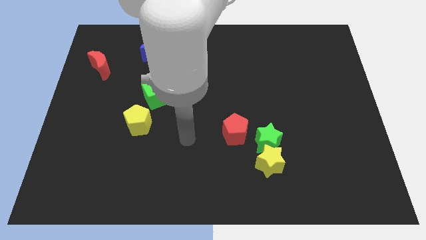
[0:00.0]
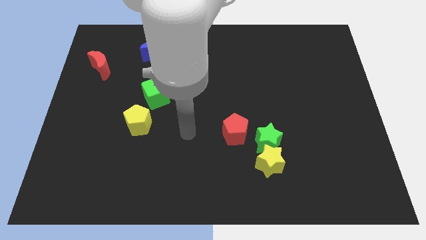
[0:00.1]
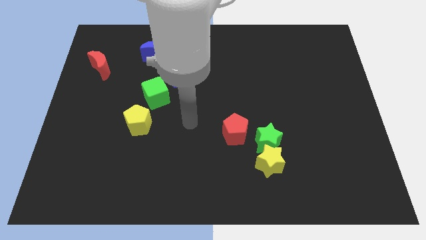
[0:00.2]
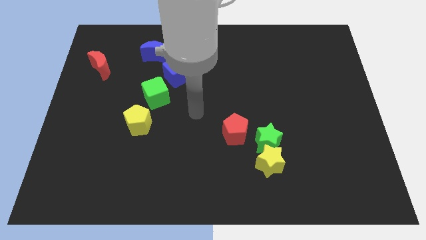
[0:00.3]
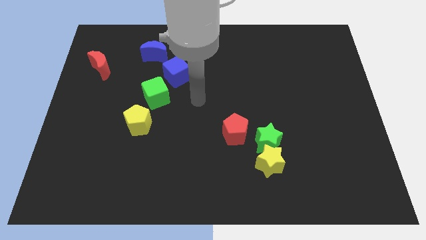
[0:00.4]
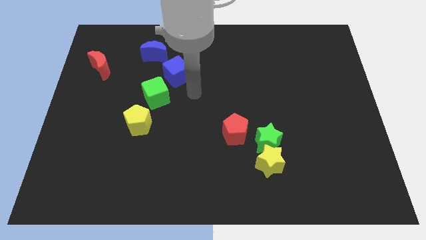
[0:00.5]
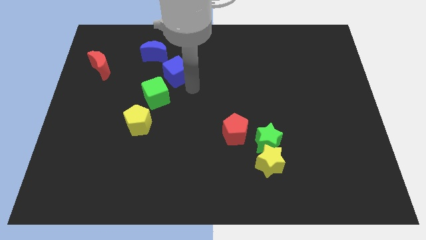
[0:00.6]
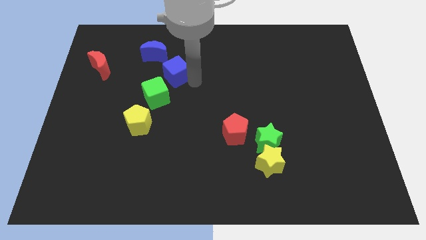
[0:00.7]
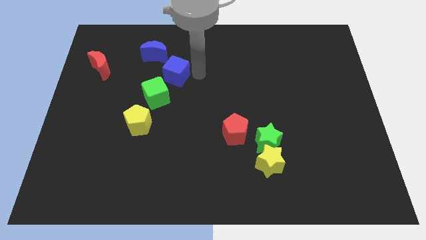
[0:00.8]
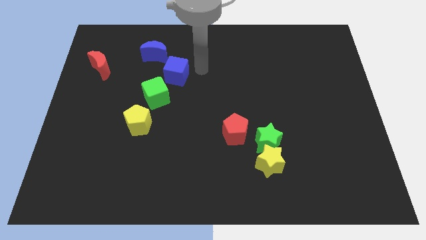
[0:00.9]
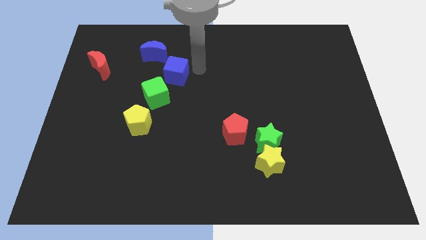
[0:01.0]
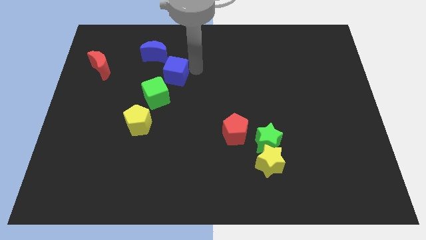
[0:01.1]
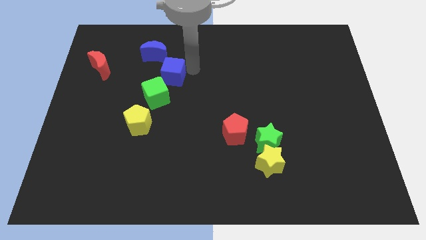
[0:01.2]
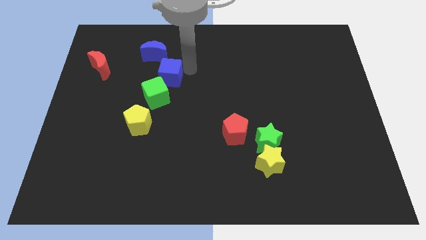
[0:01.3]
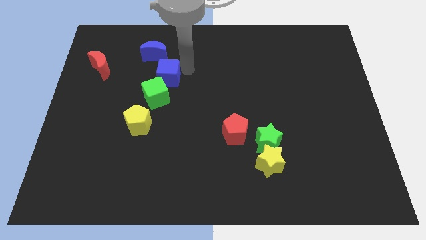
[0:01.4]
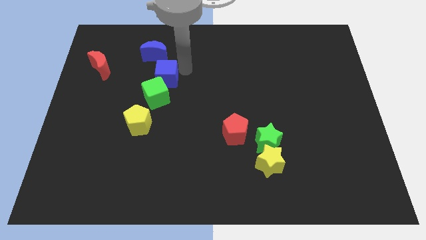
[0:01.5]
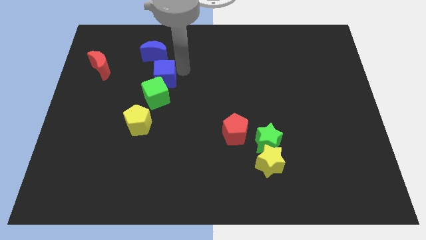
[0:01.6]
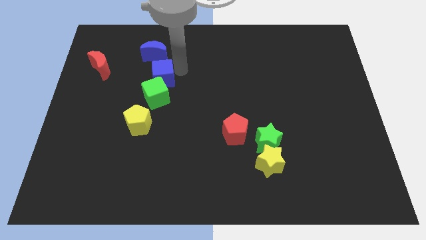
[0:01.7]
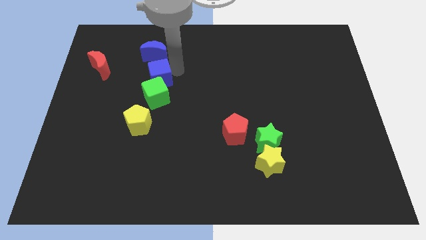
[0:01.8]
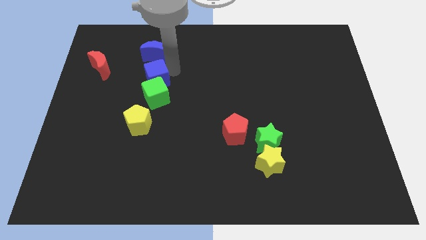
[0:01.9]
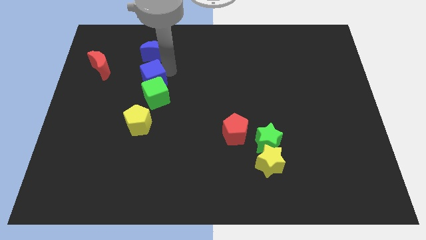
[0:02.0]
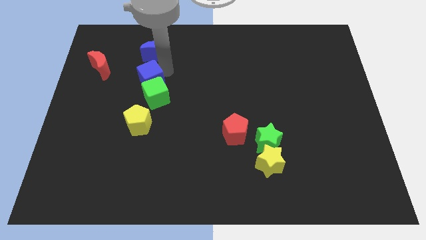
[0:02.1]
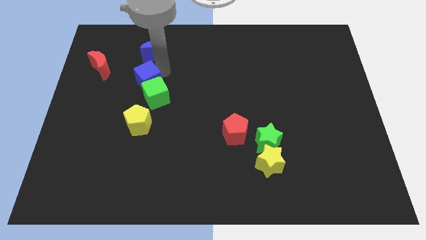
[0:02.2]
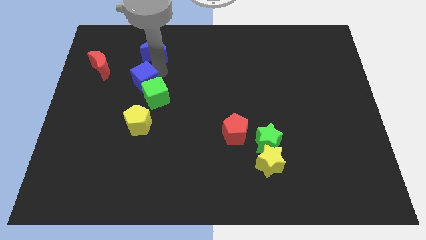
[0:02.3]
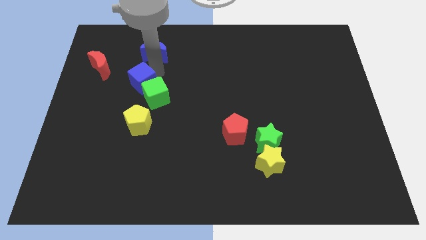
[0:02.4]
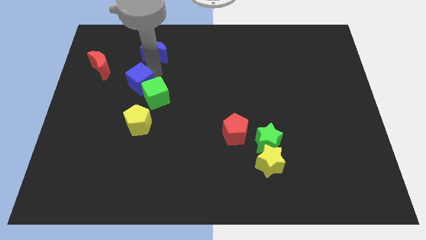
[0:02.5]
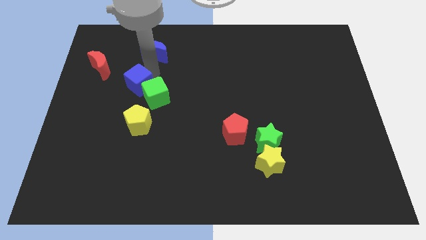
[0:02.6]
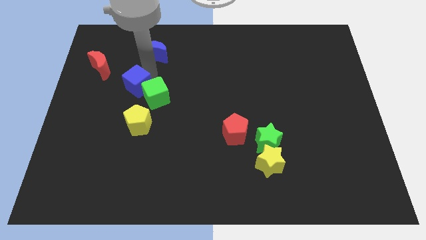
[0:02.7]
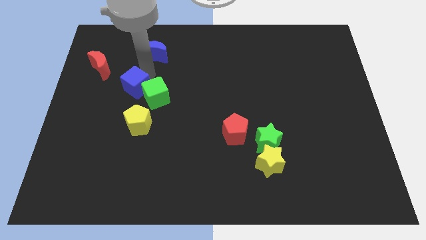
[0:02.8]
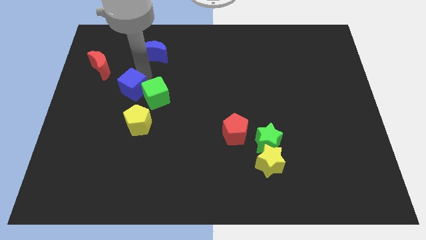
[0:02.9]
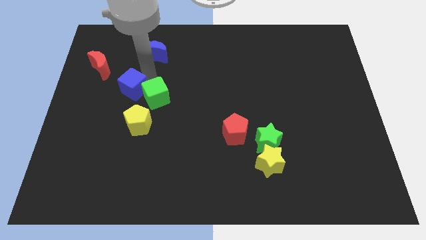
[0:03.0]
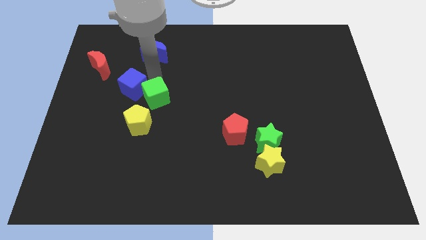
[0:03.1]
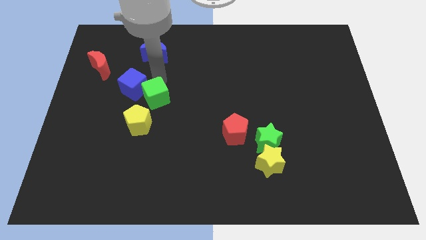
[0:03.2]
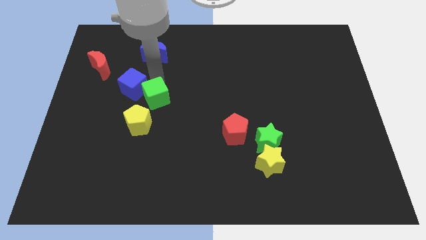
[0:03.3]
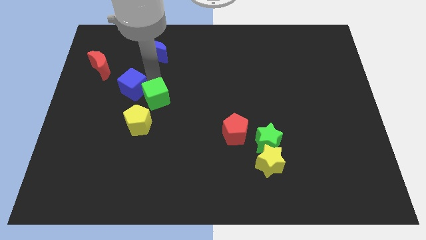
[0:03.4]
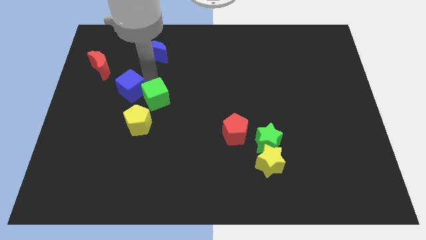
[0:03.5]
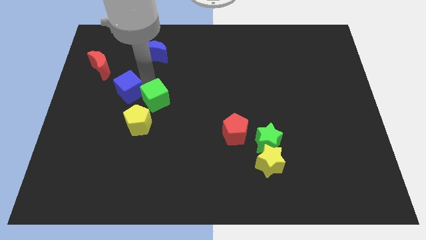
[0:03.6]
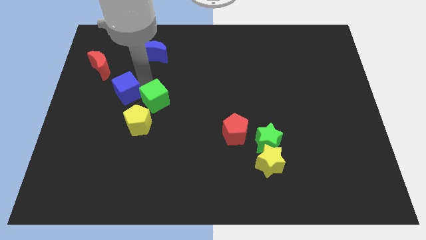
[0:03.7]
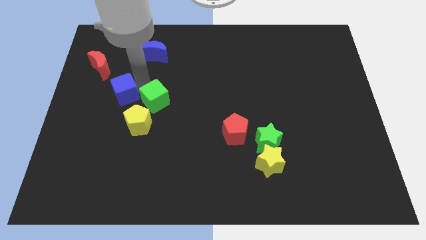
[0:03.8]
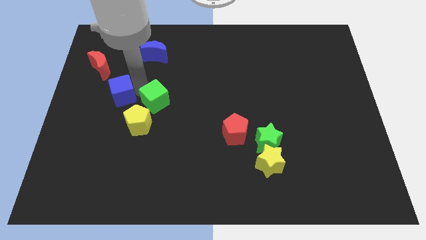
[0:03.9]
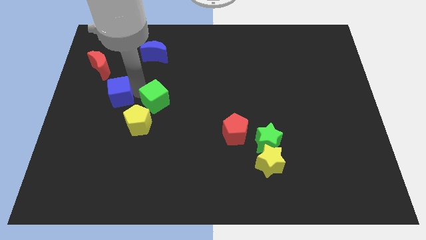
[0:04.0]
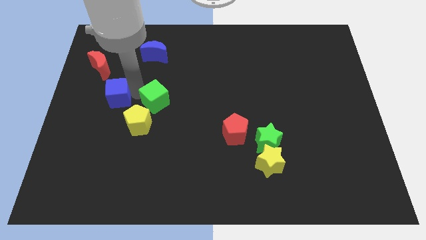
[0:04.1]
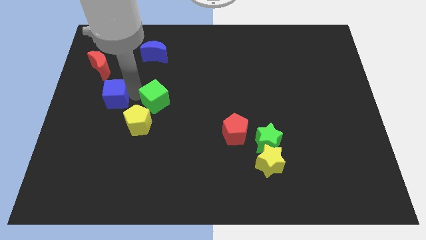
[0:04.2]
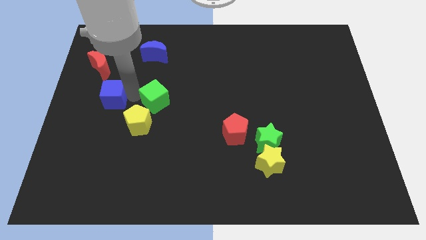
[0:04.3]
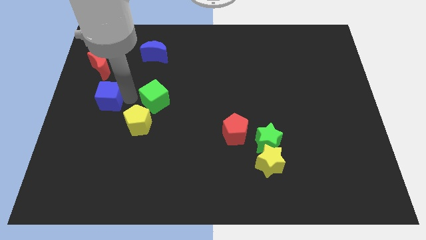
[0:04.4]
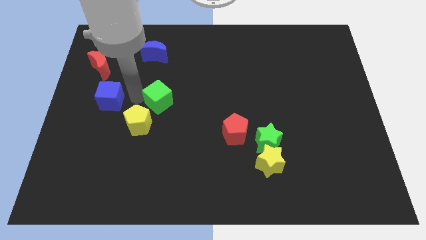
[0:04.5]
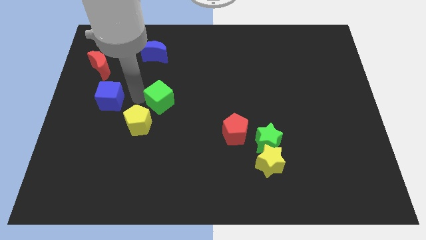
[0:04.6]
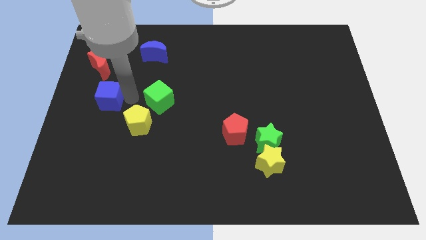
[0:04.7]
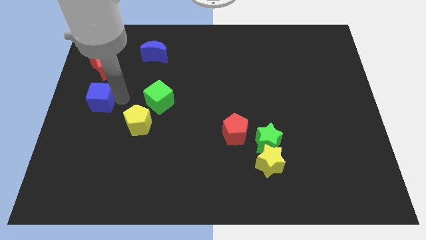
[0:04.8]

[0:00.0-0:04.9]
move the blue cube to the left side of the board

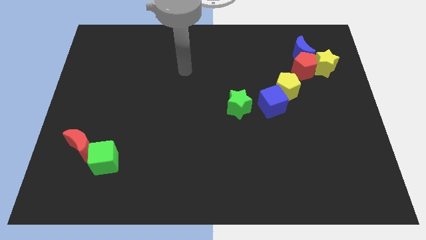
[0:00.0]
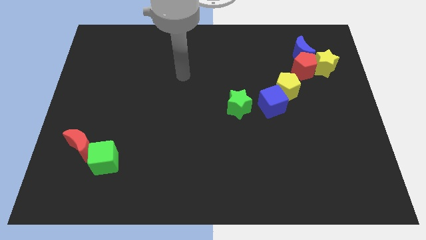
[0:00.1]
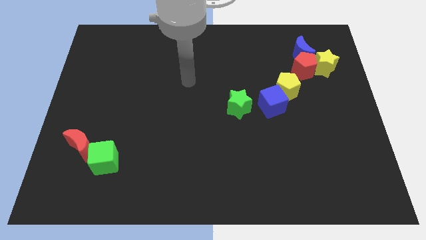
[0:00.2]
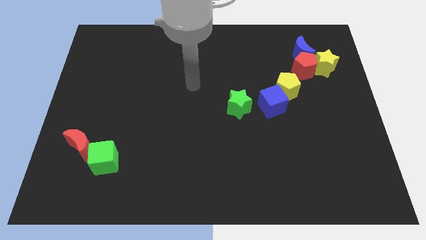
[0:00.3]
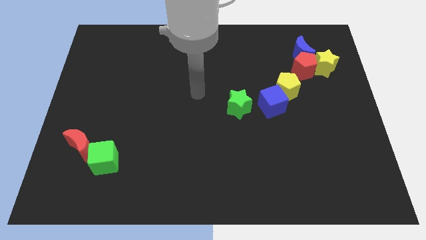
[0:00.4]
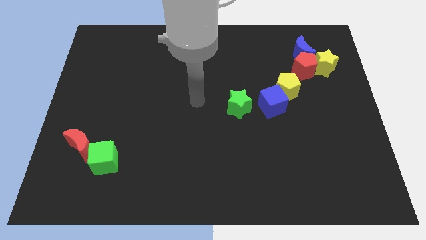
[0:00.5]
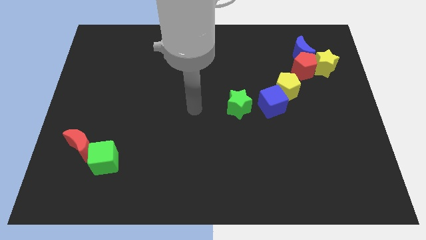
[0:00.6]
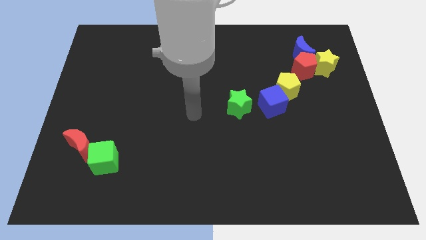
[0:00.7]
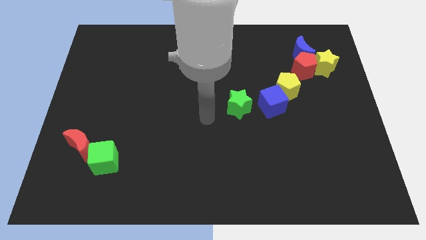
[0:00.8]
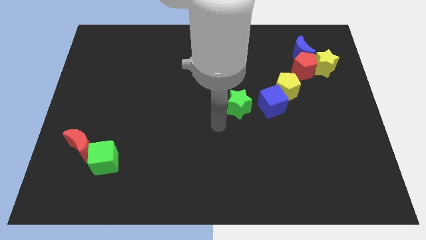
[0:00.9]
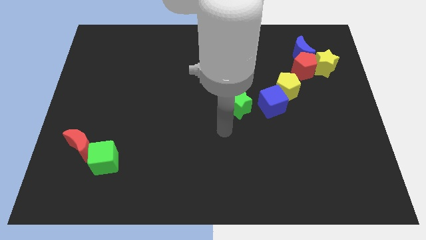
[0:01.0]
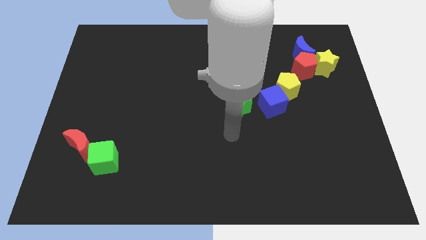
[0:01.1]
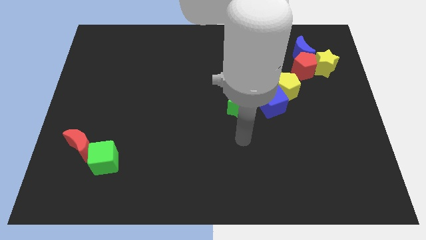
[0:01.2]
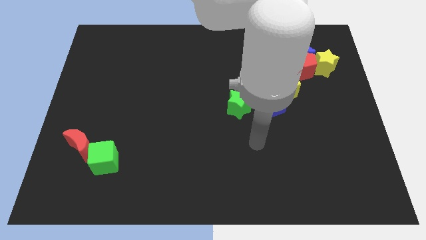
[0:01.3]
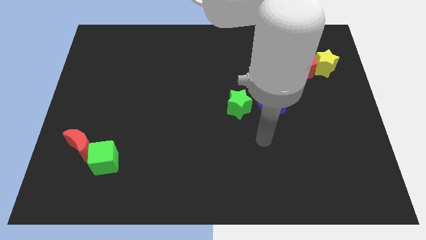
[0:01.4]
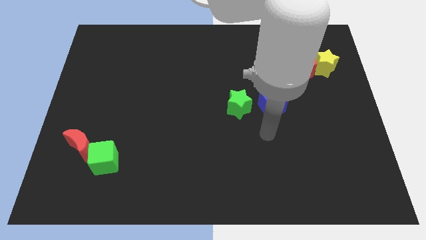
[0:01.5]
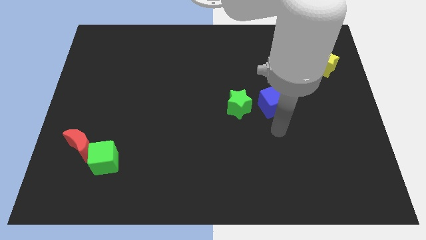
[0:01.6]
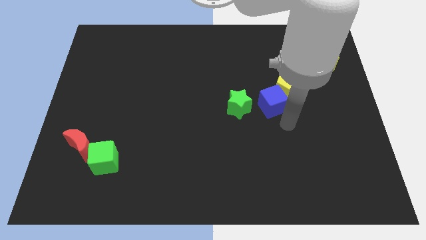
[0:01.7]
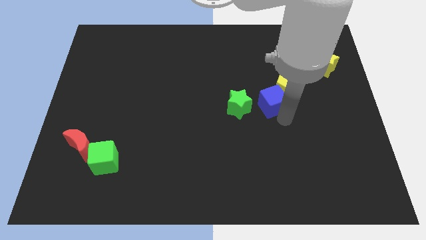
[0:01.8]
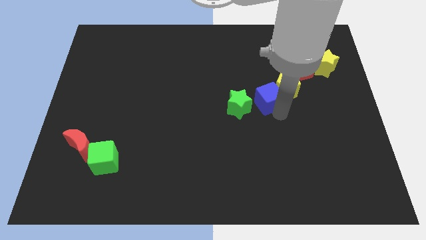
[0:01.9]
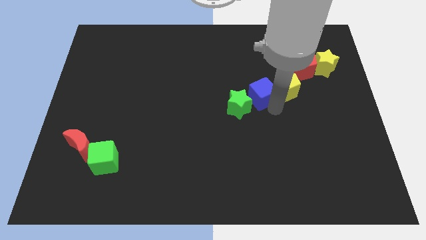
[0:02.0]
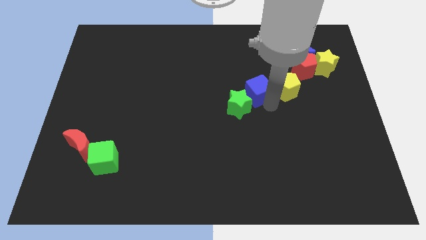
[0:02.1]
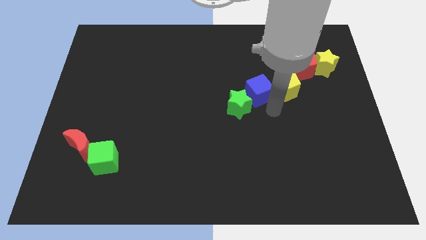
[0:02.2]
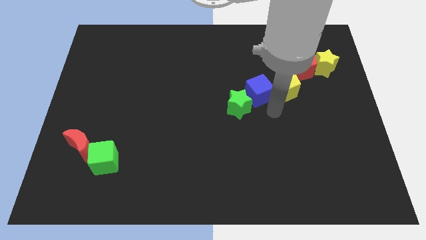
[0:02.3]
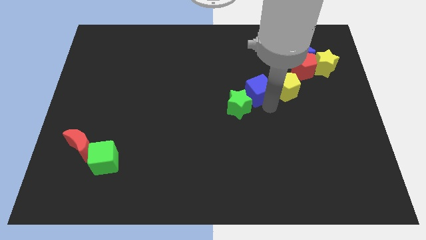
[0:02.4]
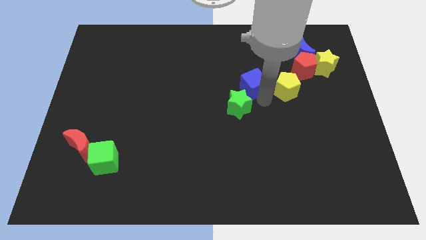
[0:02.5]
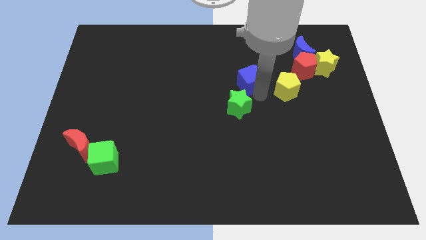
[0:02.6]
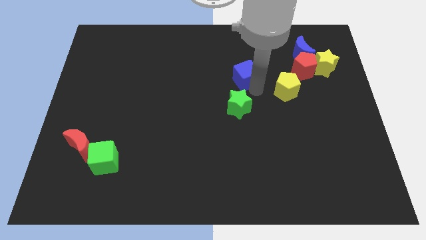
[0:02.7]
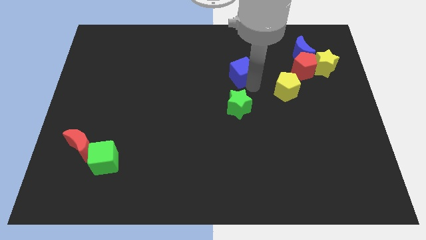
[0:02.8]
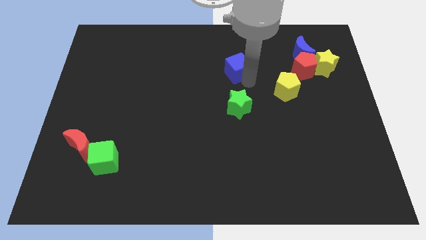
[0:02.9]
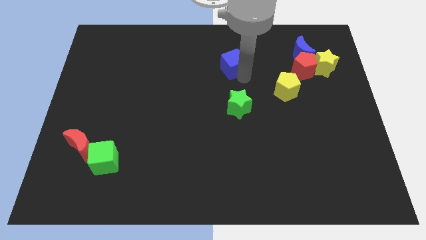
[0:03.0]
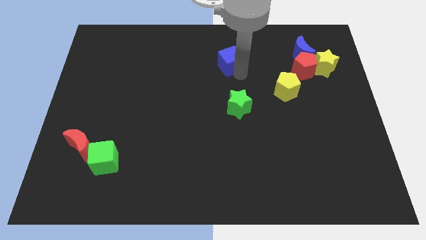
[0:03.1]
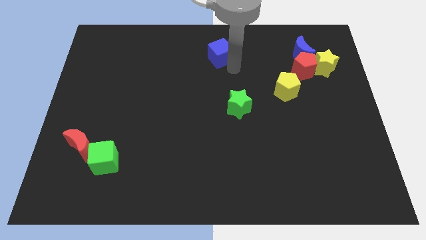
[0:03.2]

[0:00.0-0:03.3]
put the blue cube to the top
